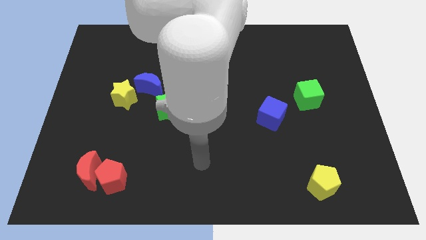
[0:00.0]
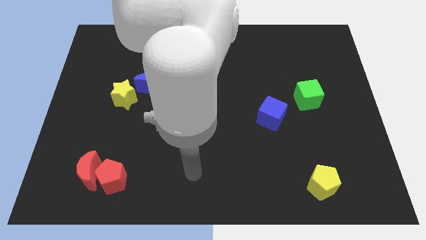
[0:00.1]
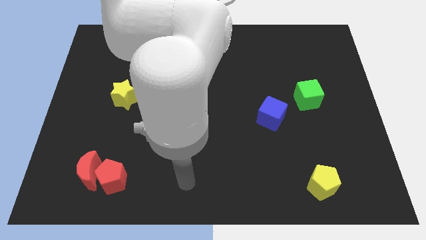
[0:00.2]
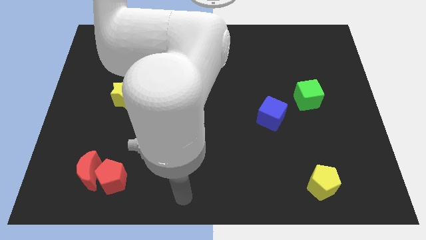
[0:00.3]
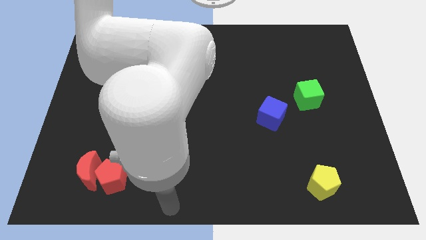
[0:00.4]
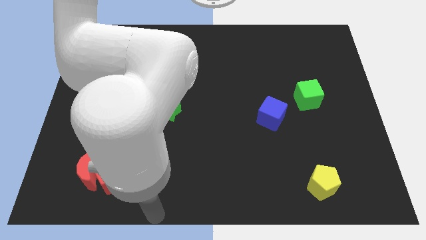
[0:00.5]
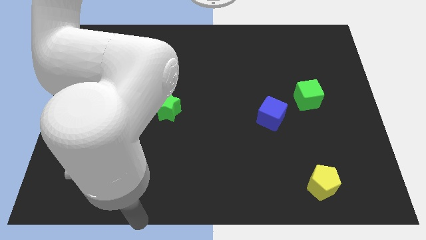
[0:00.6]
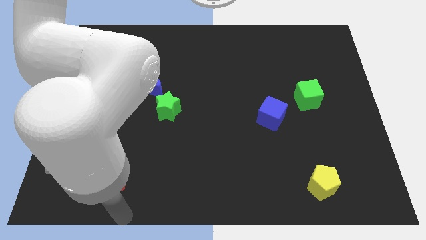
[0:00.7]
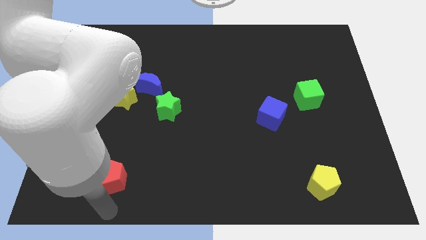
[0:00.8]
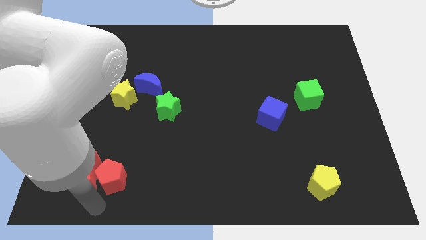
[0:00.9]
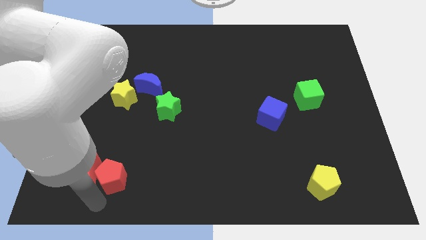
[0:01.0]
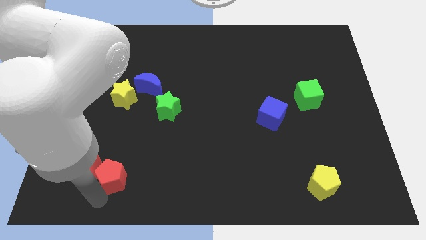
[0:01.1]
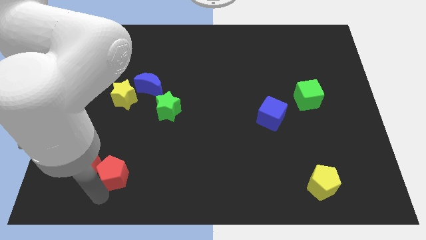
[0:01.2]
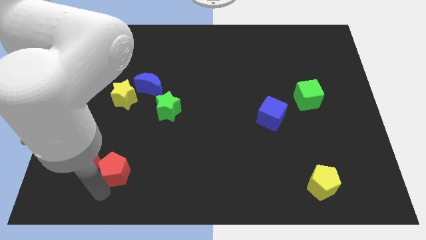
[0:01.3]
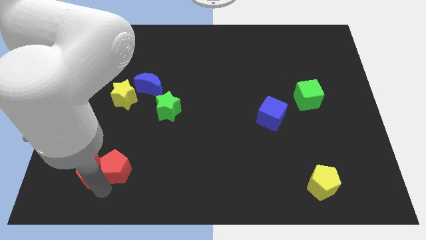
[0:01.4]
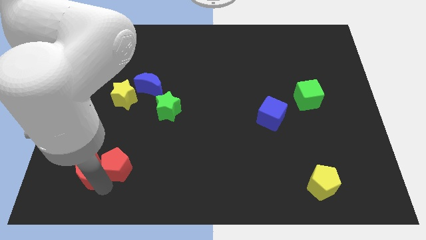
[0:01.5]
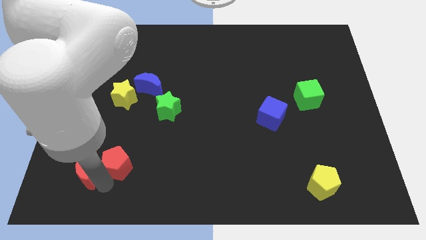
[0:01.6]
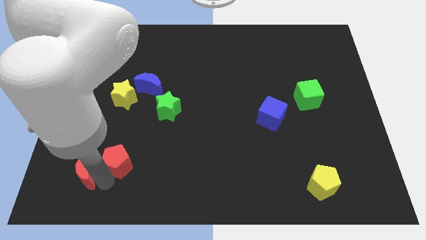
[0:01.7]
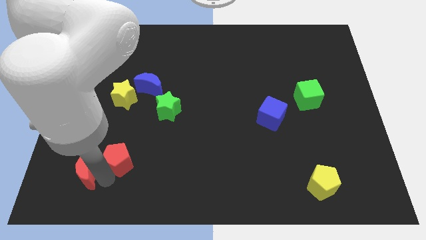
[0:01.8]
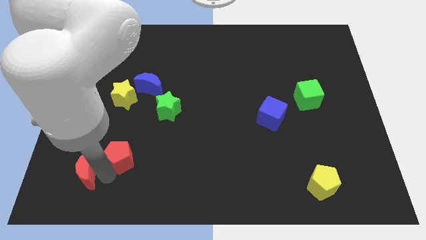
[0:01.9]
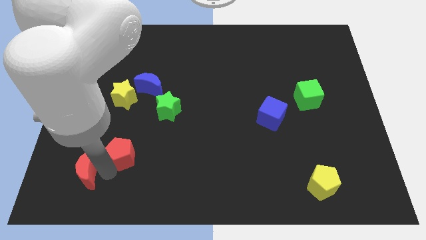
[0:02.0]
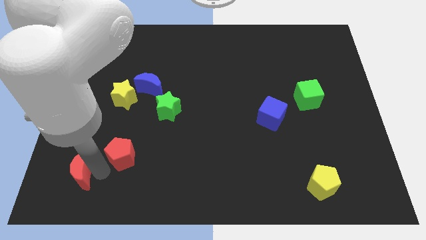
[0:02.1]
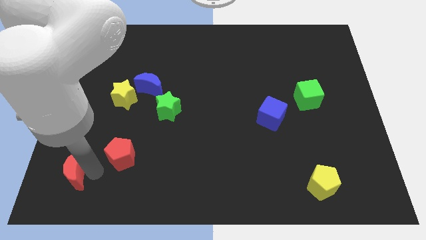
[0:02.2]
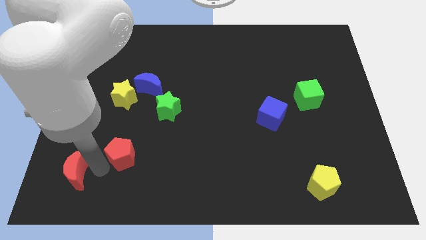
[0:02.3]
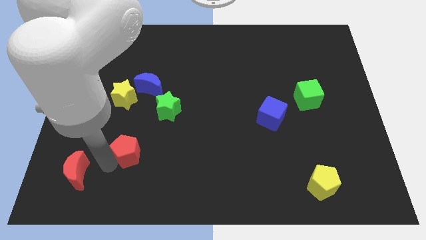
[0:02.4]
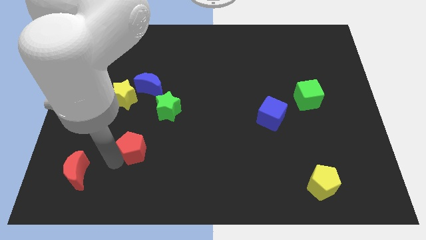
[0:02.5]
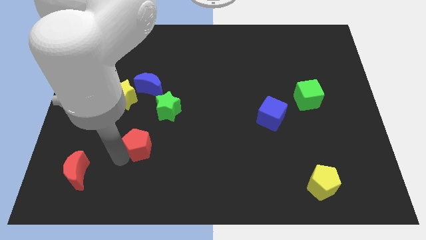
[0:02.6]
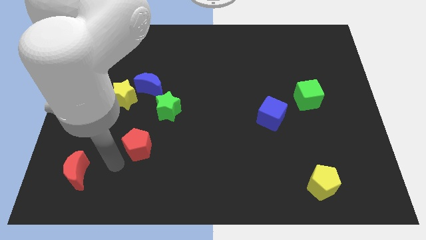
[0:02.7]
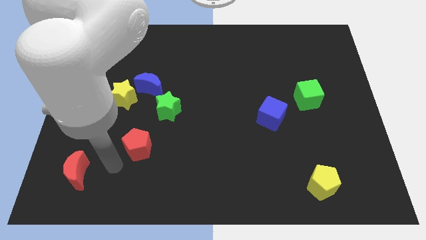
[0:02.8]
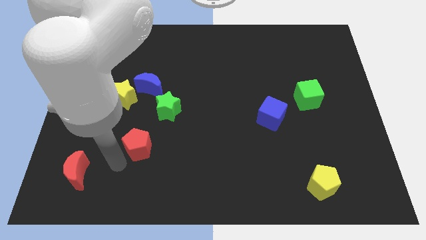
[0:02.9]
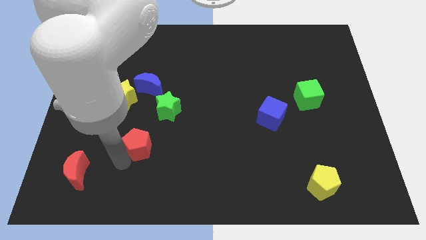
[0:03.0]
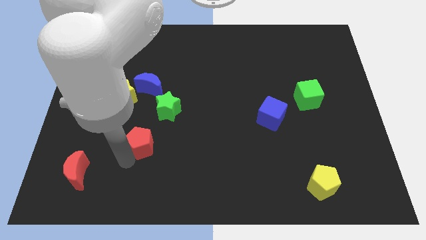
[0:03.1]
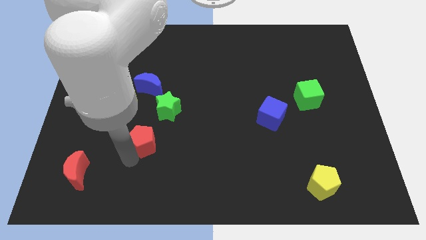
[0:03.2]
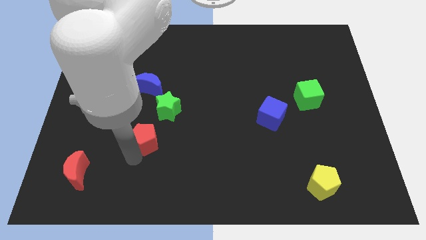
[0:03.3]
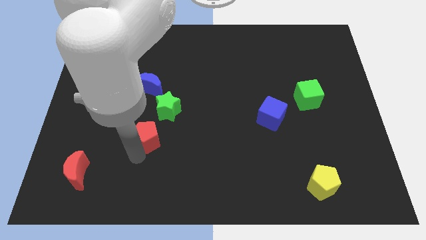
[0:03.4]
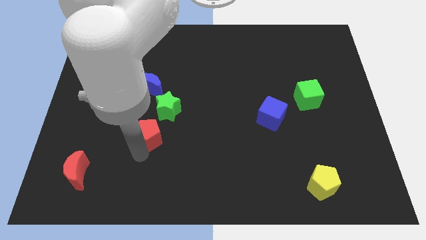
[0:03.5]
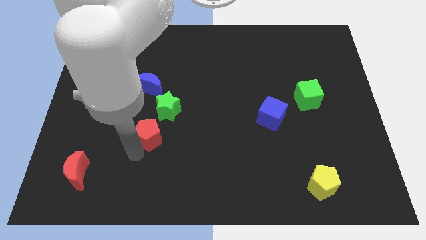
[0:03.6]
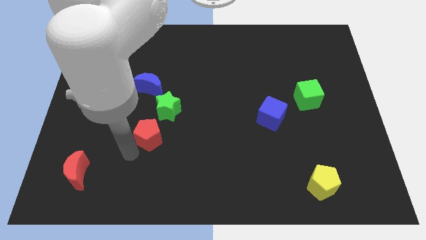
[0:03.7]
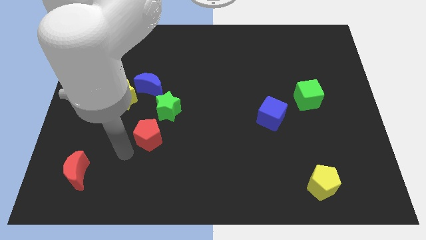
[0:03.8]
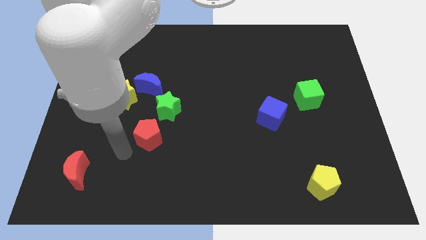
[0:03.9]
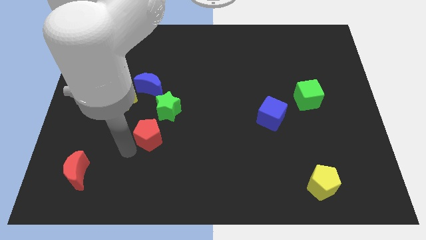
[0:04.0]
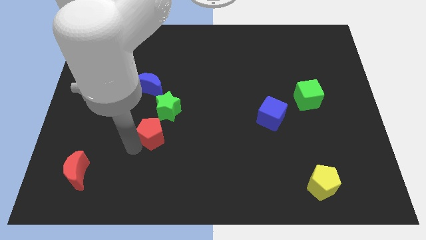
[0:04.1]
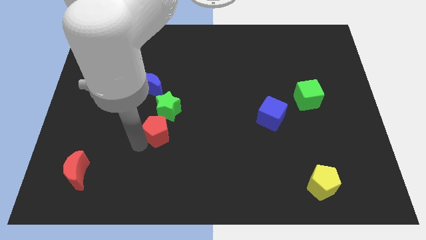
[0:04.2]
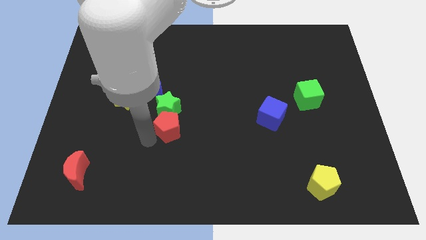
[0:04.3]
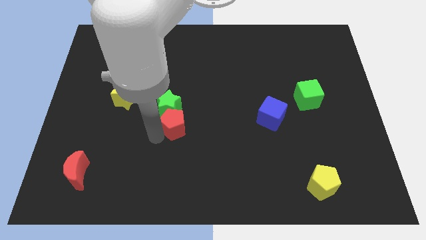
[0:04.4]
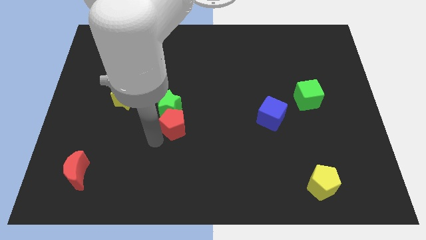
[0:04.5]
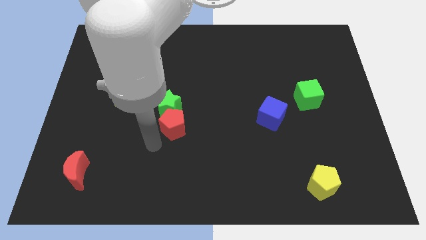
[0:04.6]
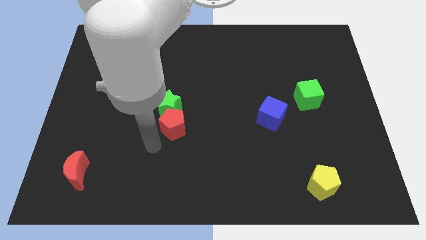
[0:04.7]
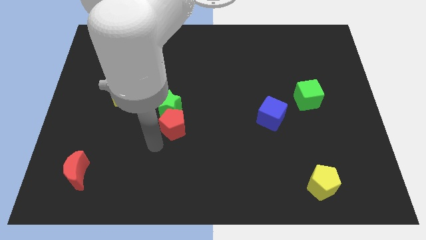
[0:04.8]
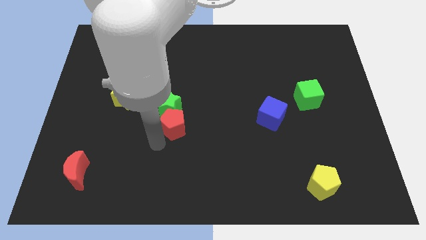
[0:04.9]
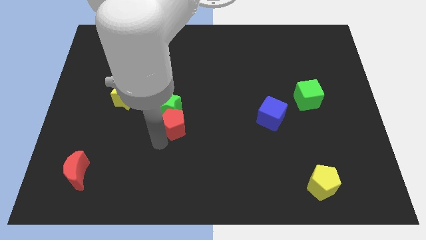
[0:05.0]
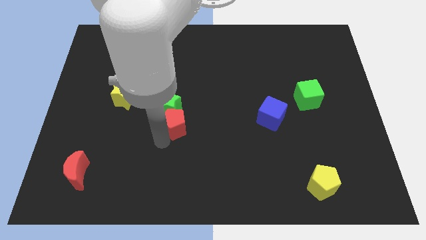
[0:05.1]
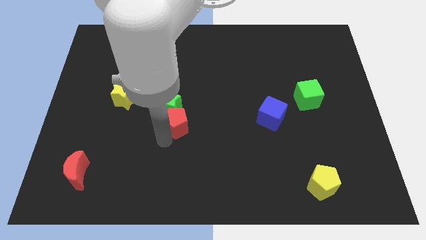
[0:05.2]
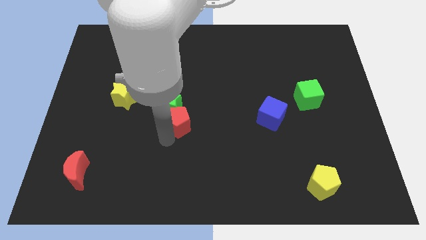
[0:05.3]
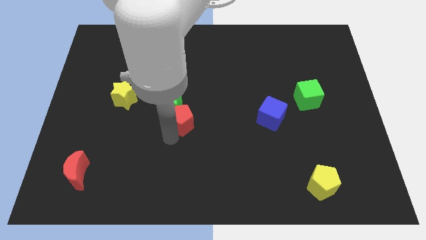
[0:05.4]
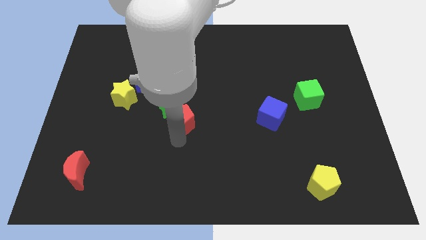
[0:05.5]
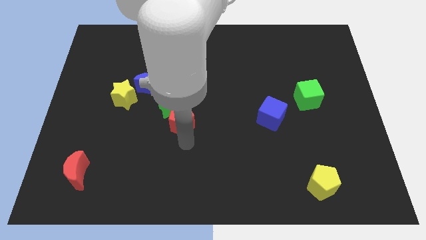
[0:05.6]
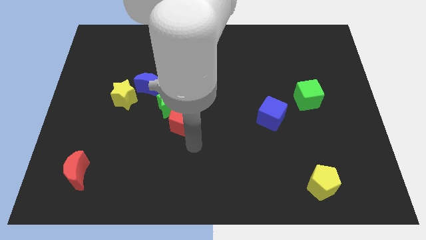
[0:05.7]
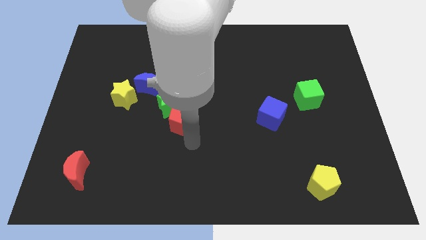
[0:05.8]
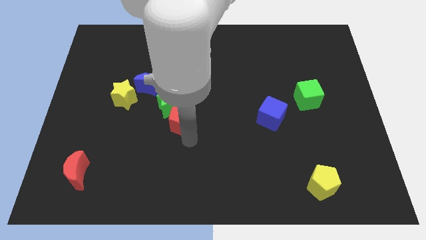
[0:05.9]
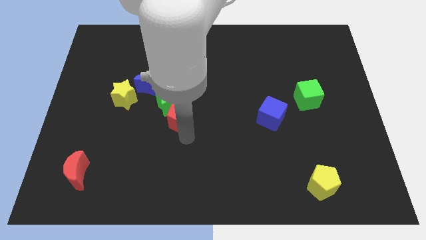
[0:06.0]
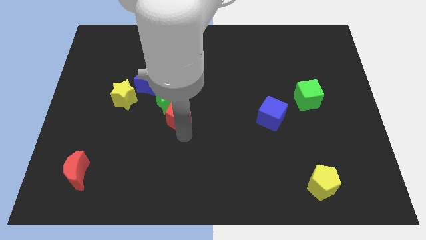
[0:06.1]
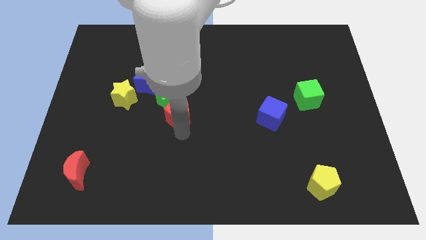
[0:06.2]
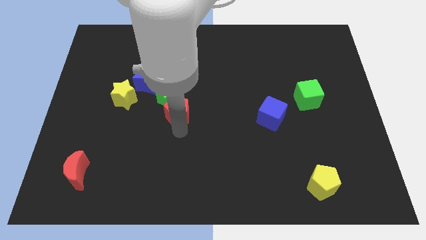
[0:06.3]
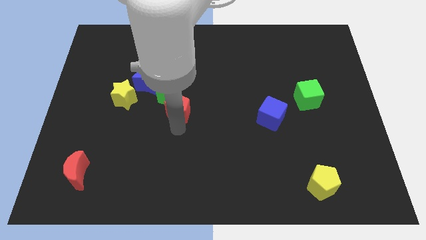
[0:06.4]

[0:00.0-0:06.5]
put the red pentagon to the right side of the yellow star

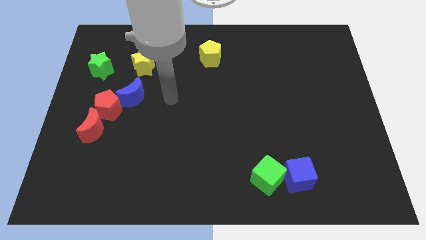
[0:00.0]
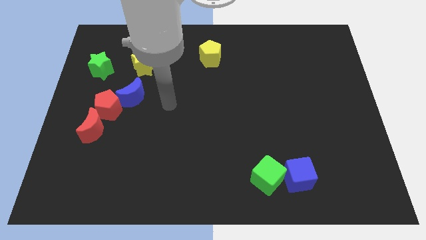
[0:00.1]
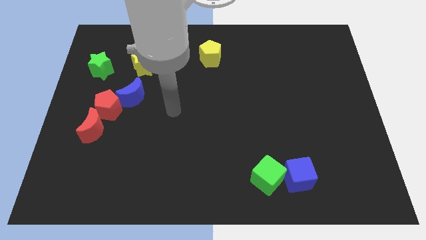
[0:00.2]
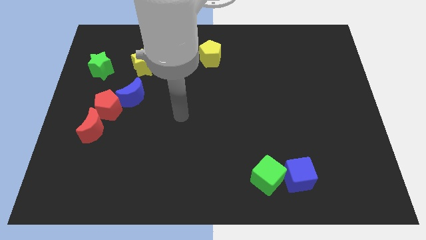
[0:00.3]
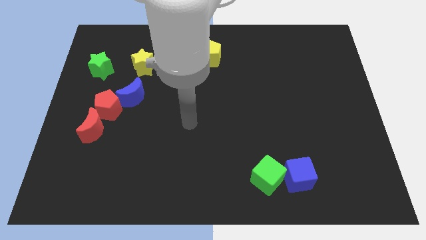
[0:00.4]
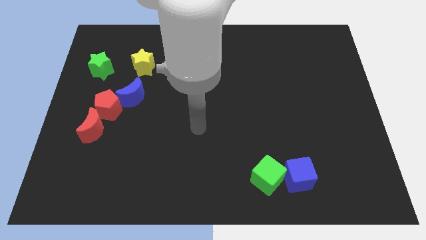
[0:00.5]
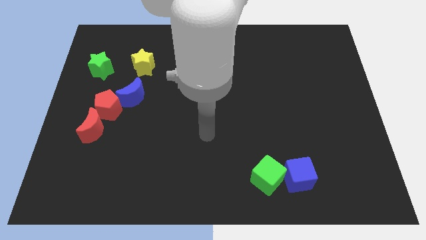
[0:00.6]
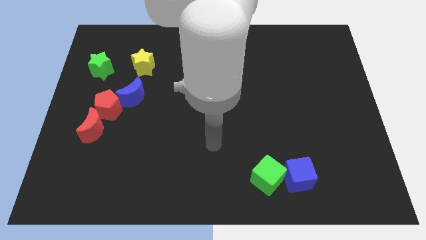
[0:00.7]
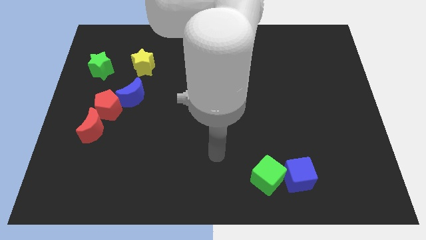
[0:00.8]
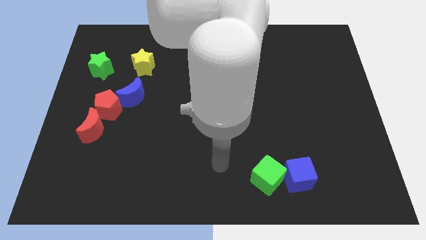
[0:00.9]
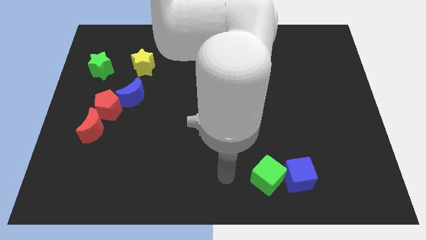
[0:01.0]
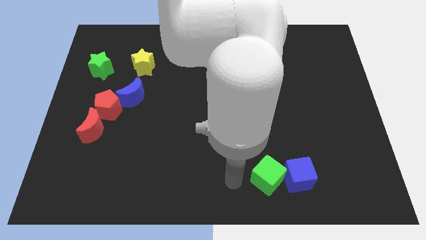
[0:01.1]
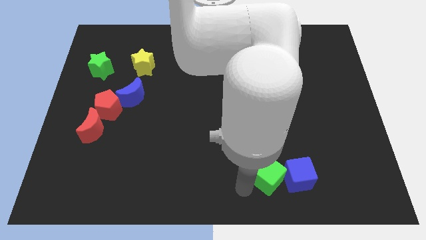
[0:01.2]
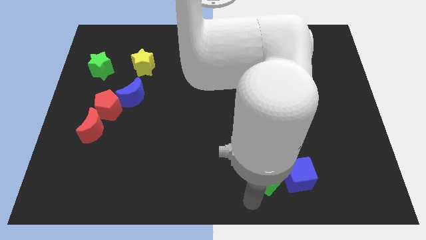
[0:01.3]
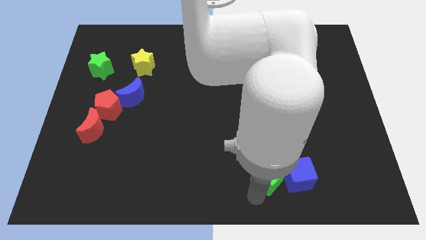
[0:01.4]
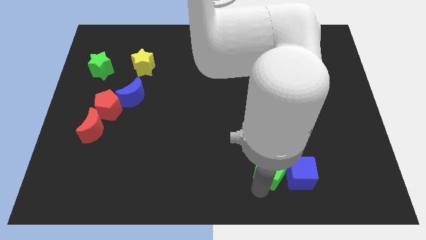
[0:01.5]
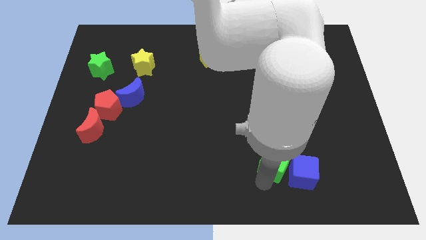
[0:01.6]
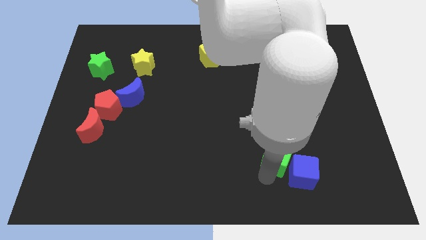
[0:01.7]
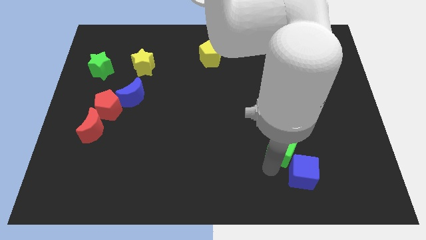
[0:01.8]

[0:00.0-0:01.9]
move the green cube to the top of the blue cube
